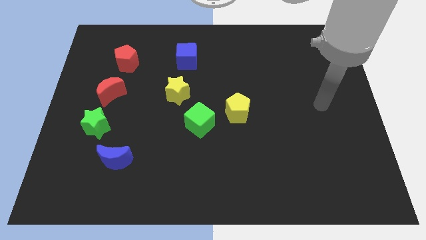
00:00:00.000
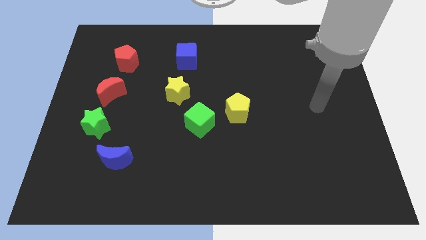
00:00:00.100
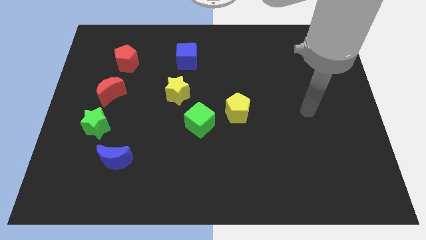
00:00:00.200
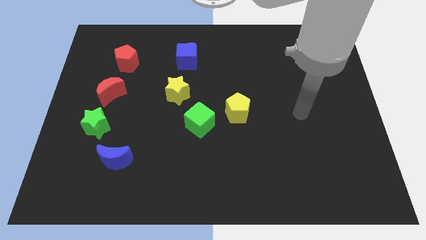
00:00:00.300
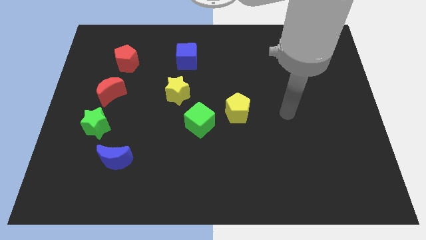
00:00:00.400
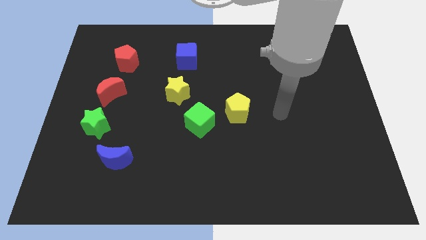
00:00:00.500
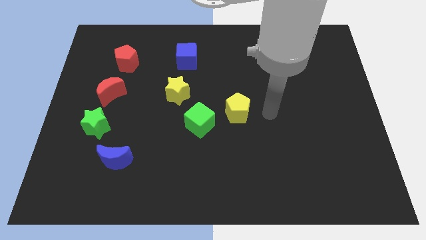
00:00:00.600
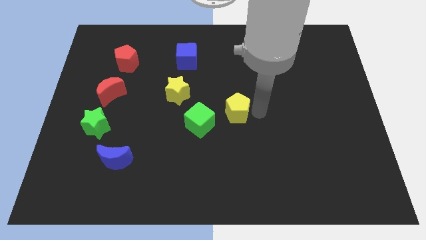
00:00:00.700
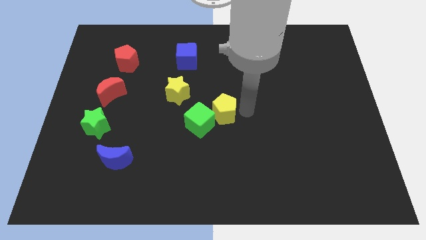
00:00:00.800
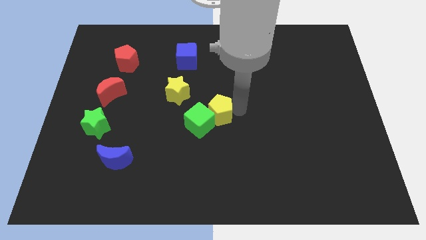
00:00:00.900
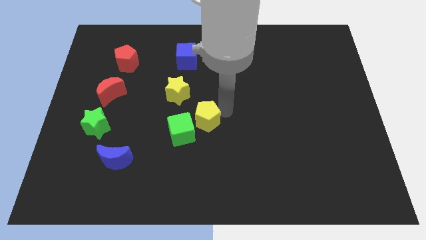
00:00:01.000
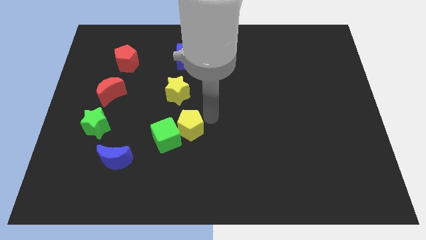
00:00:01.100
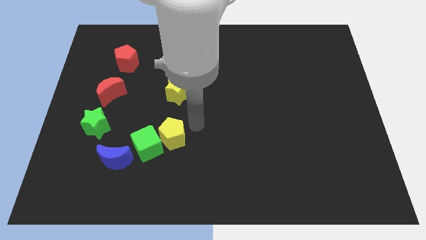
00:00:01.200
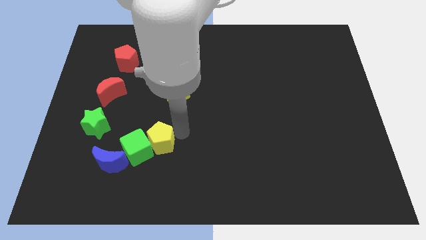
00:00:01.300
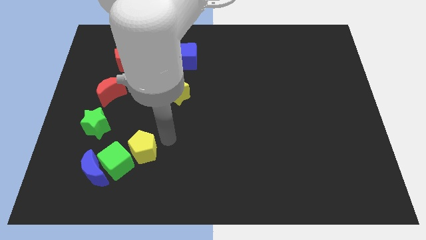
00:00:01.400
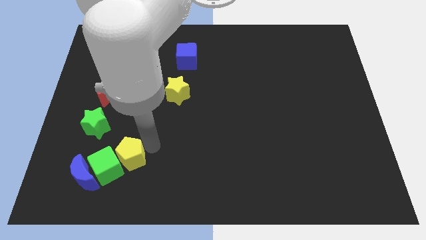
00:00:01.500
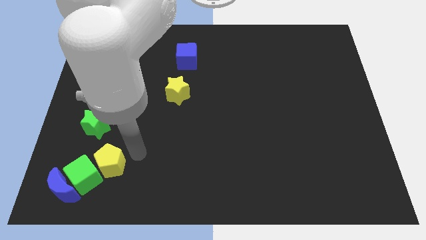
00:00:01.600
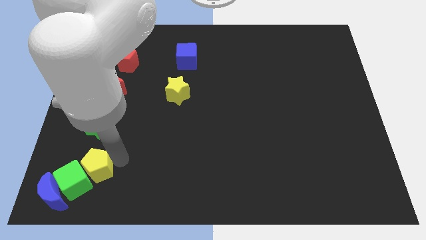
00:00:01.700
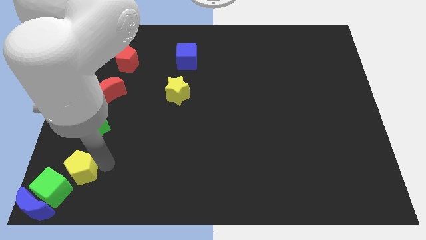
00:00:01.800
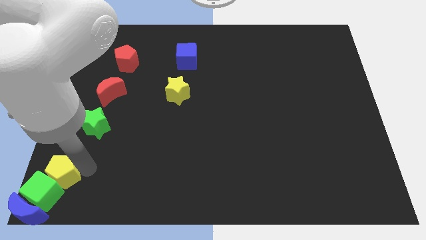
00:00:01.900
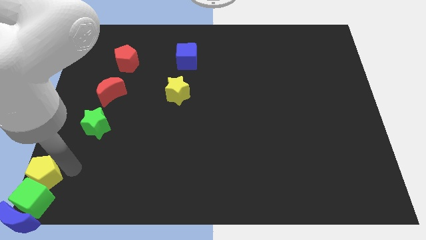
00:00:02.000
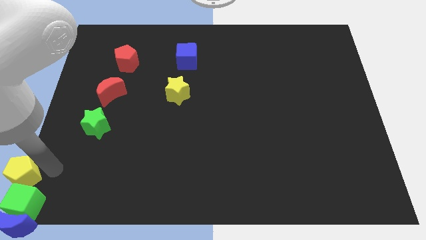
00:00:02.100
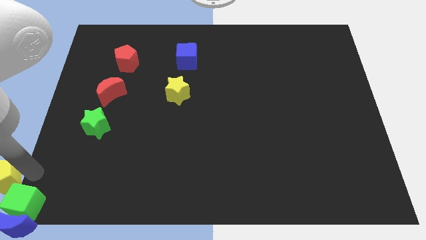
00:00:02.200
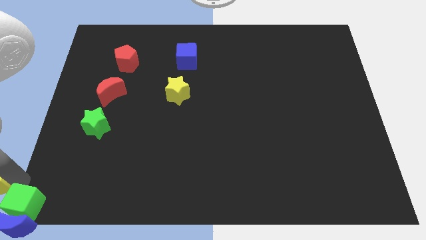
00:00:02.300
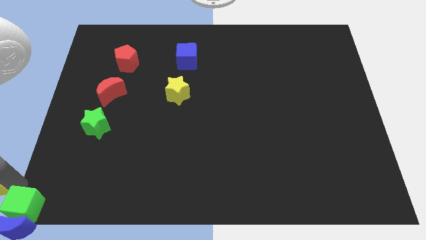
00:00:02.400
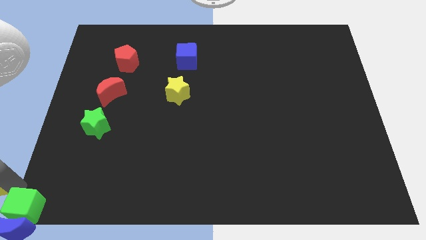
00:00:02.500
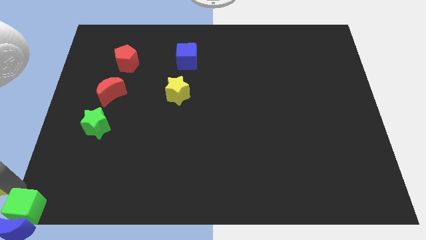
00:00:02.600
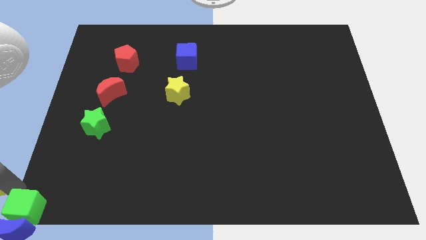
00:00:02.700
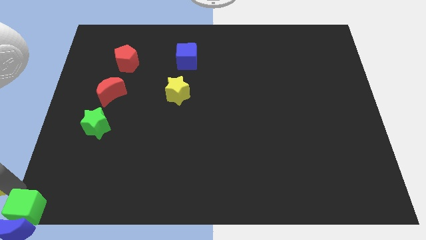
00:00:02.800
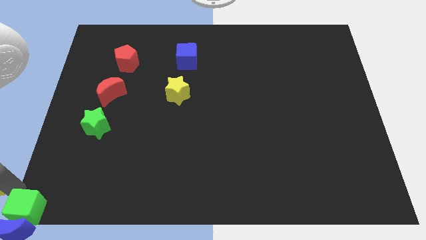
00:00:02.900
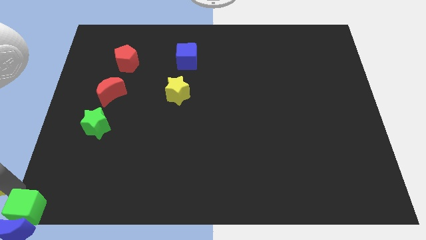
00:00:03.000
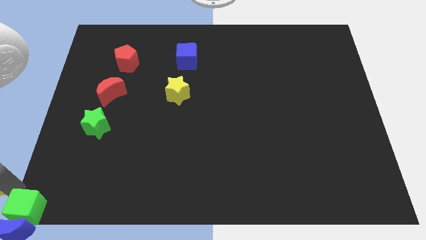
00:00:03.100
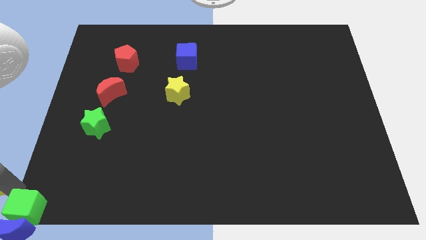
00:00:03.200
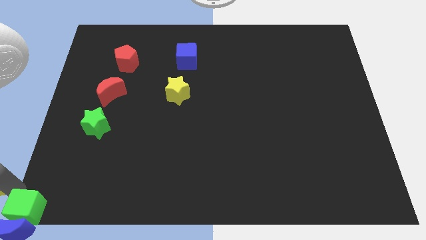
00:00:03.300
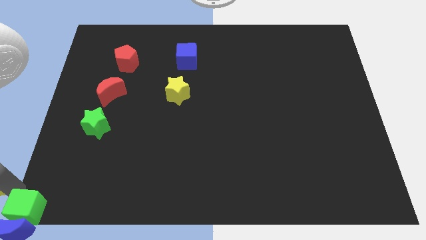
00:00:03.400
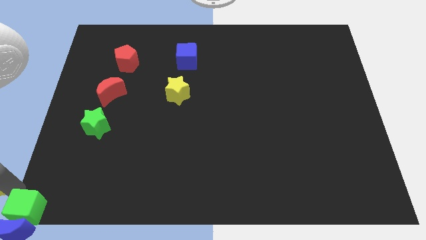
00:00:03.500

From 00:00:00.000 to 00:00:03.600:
move the green cube away from the yellow pentagon

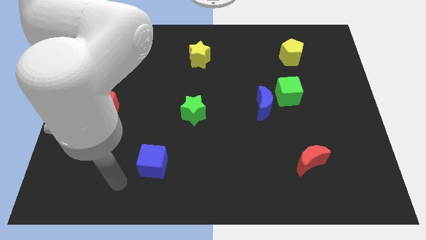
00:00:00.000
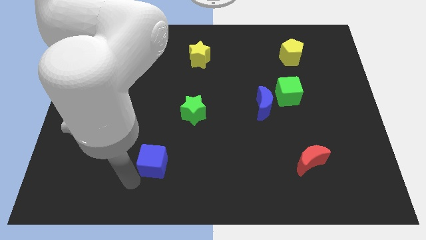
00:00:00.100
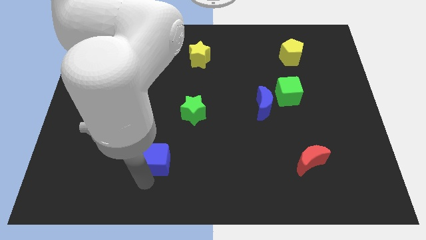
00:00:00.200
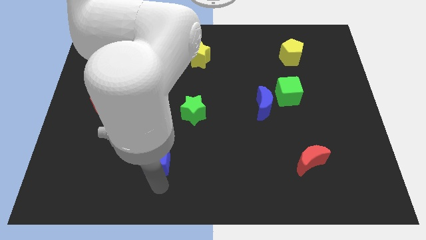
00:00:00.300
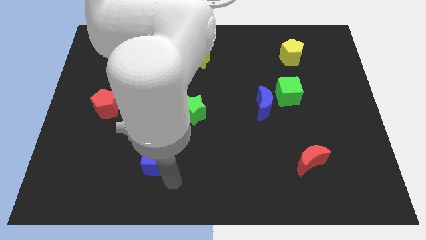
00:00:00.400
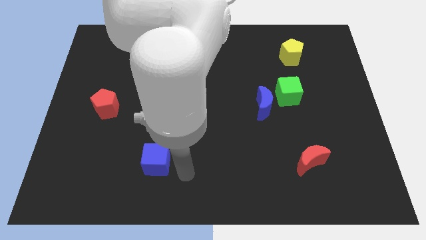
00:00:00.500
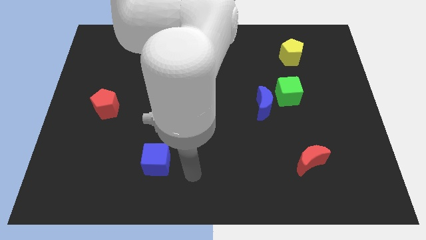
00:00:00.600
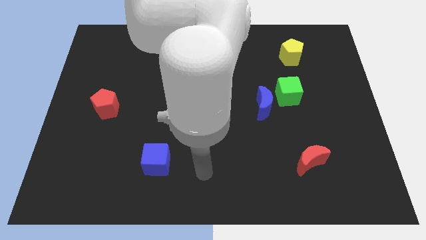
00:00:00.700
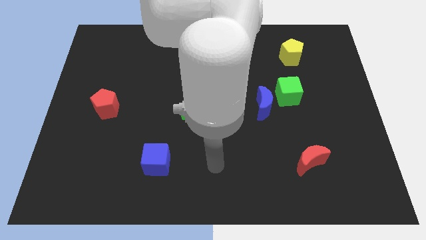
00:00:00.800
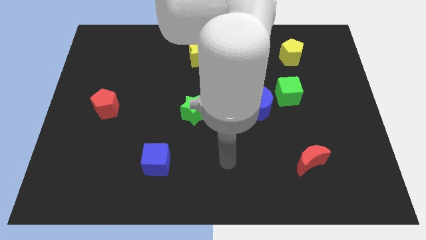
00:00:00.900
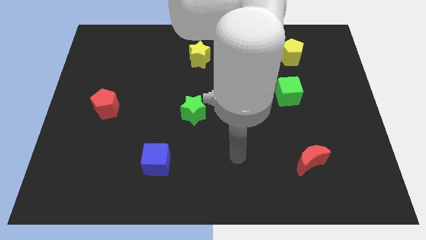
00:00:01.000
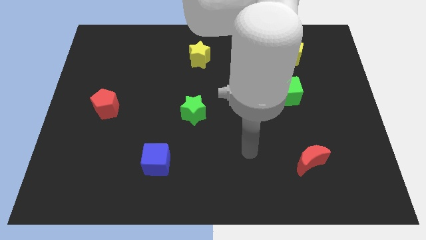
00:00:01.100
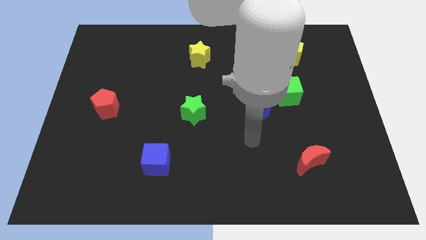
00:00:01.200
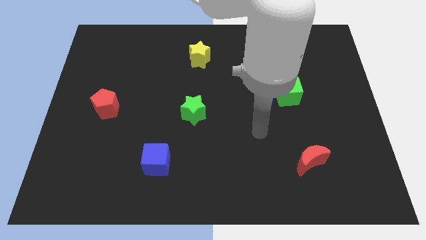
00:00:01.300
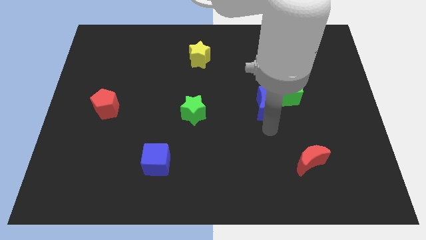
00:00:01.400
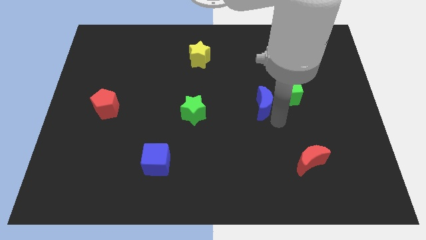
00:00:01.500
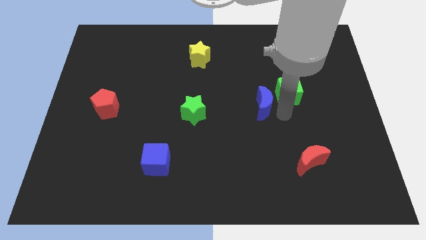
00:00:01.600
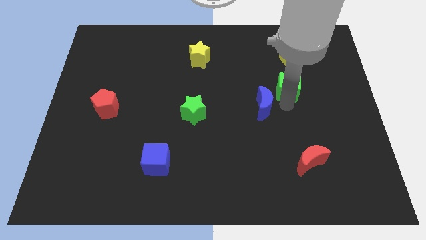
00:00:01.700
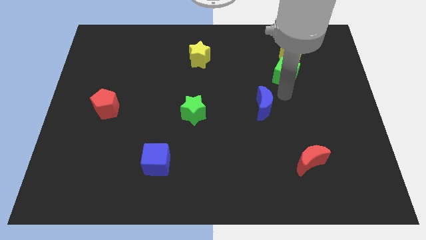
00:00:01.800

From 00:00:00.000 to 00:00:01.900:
pull the blue moon apart from the green cube

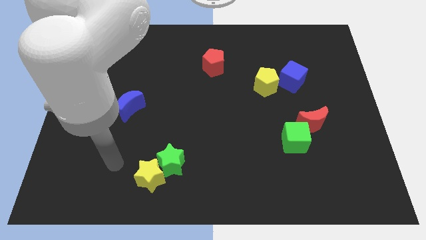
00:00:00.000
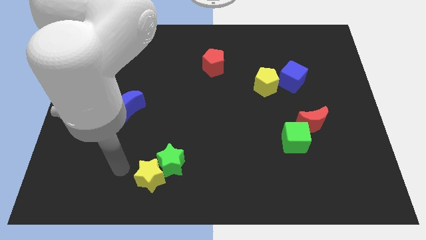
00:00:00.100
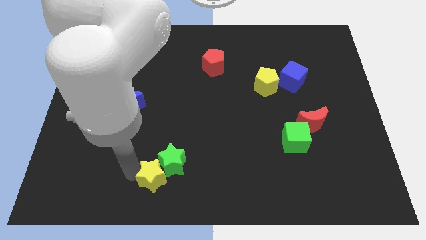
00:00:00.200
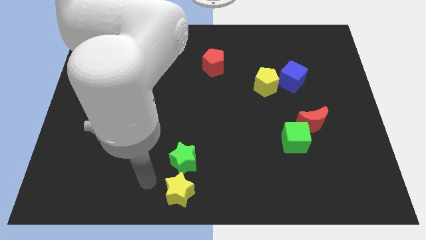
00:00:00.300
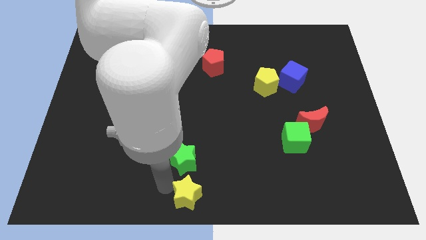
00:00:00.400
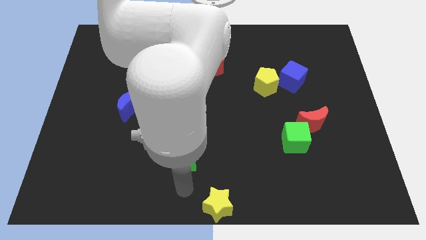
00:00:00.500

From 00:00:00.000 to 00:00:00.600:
pull the green star apart from the yellow star

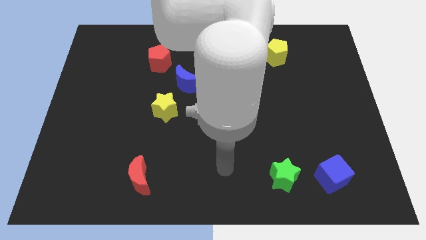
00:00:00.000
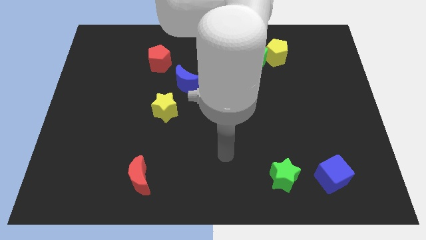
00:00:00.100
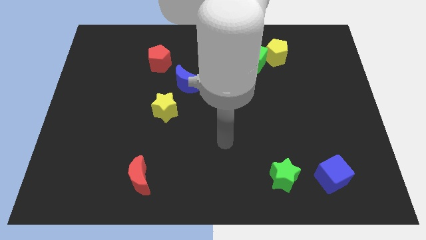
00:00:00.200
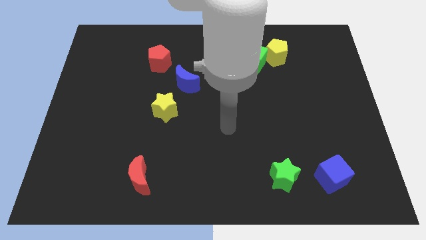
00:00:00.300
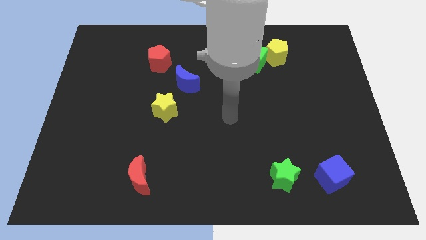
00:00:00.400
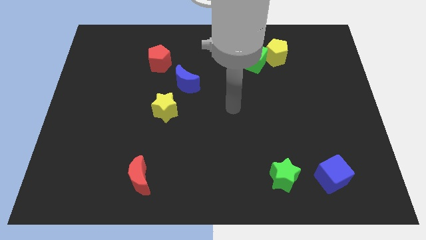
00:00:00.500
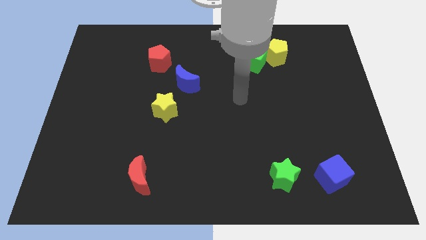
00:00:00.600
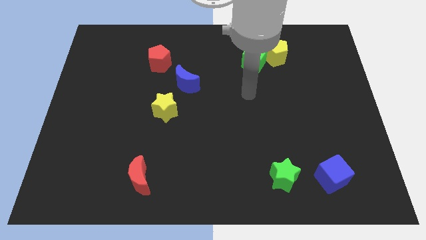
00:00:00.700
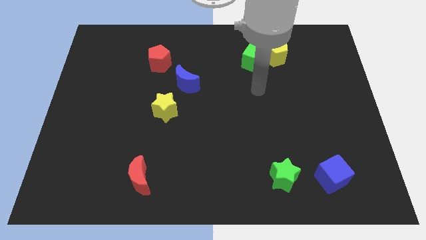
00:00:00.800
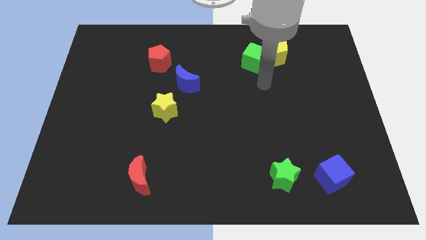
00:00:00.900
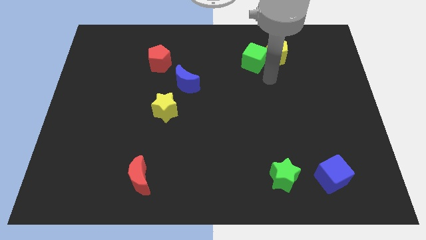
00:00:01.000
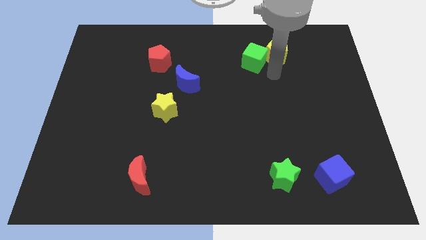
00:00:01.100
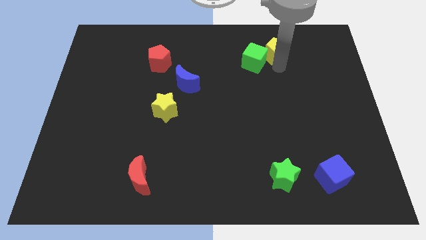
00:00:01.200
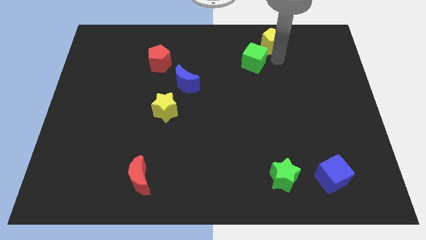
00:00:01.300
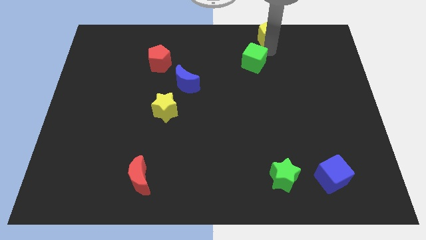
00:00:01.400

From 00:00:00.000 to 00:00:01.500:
pull the green cube apart from the yellow pentagon

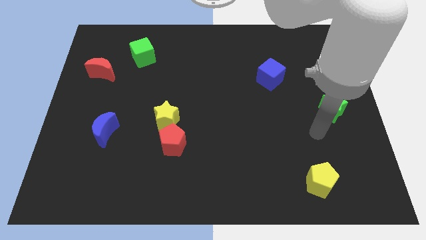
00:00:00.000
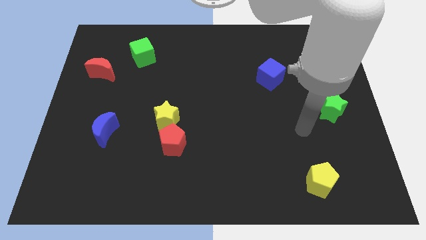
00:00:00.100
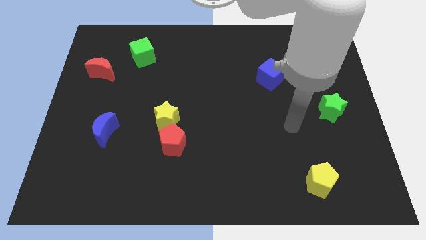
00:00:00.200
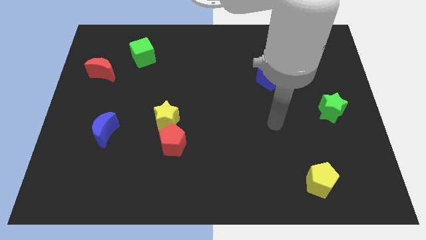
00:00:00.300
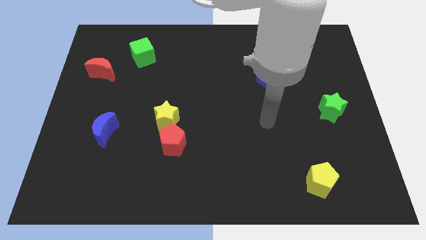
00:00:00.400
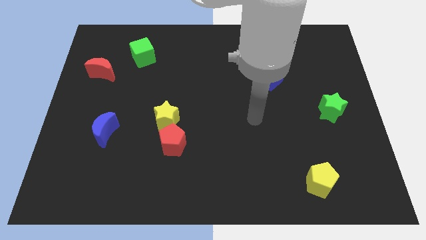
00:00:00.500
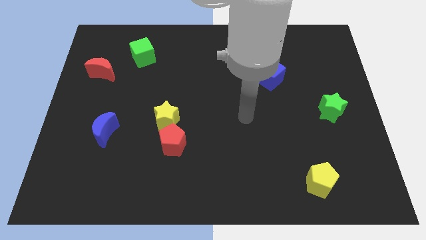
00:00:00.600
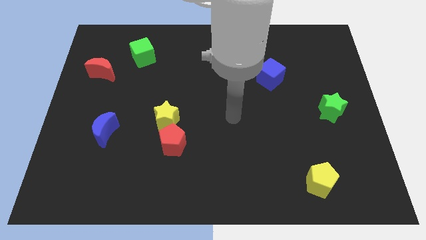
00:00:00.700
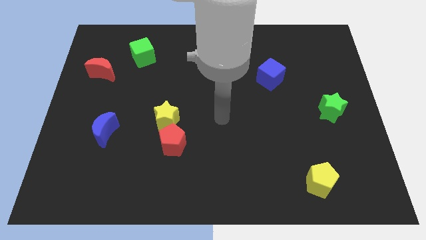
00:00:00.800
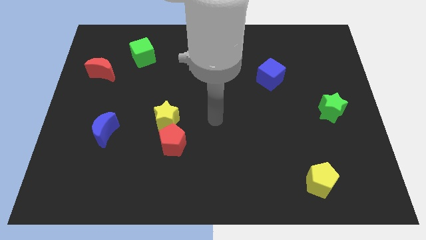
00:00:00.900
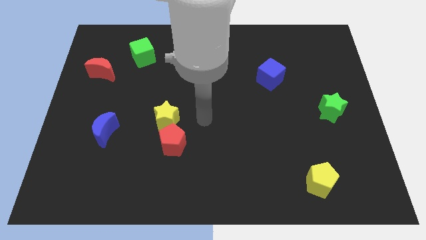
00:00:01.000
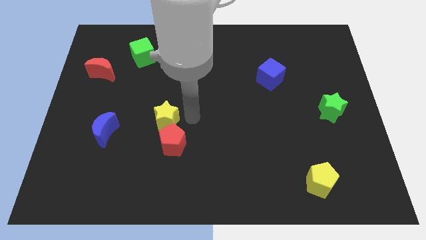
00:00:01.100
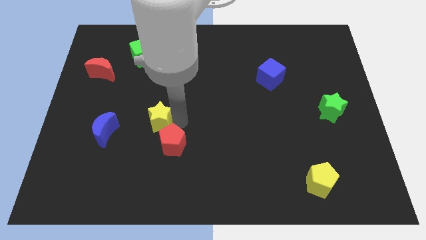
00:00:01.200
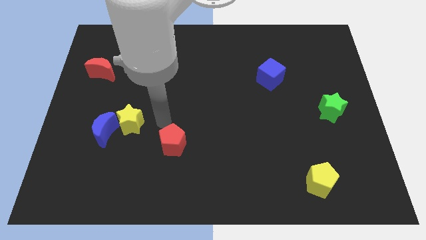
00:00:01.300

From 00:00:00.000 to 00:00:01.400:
pull the red pentagon apart from the yellow star

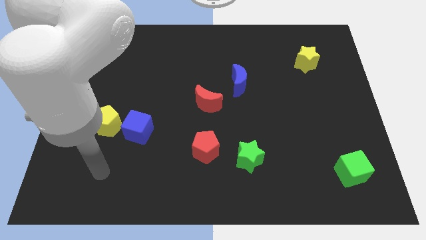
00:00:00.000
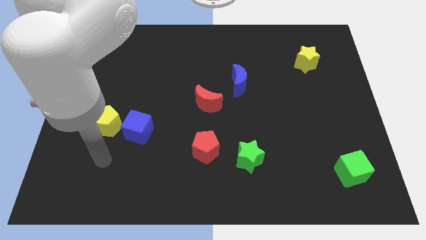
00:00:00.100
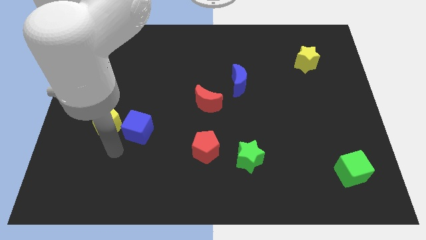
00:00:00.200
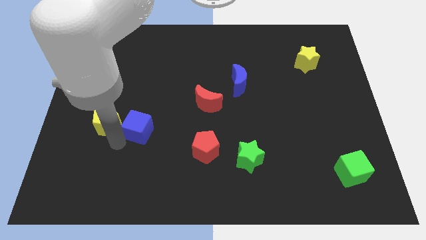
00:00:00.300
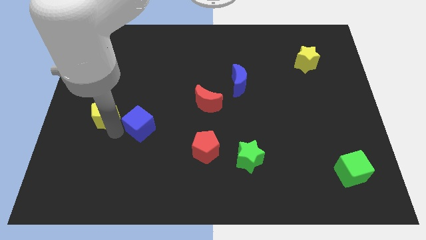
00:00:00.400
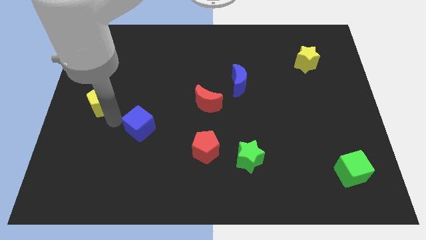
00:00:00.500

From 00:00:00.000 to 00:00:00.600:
pull the blue cube apart from the yellow pentagon
